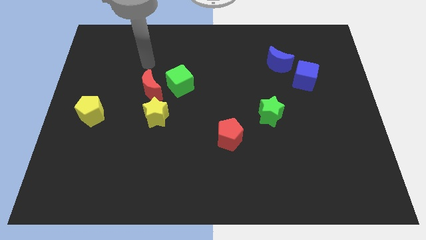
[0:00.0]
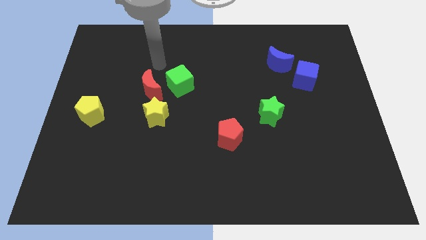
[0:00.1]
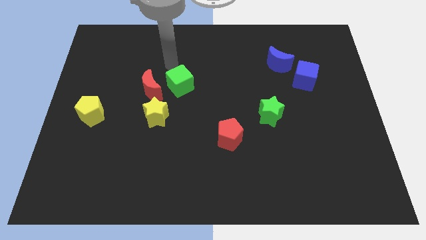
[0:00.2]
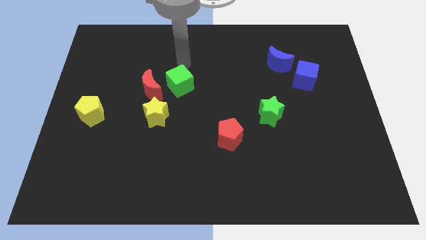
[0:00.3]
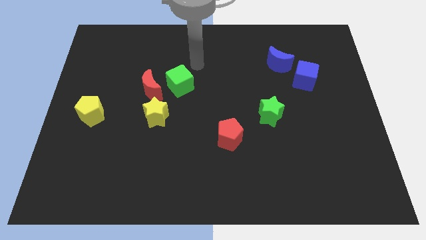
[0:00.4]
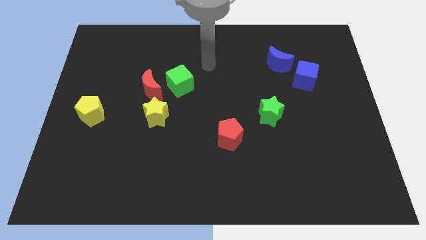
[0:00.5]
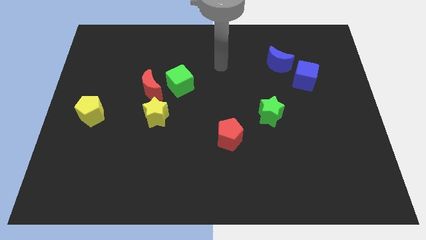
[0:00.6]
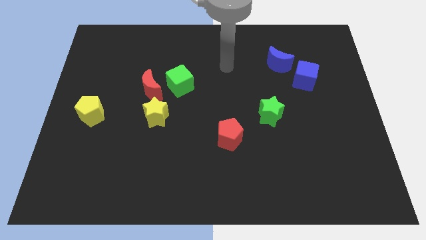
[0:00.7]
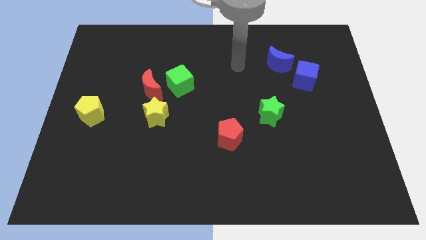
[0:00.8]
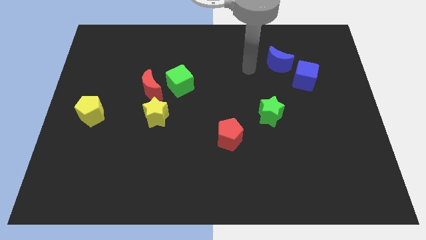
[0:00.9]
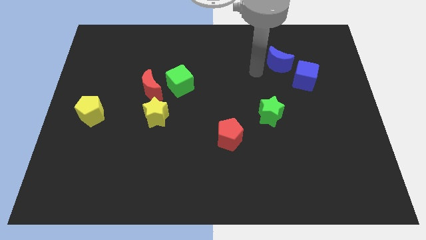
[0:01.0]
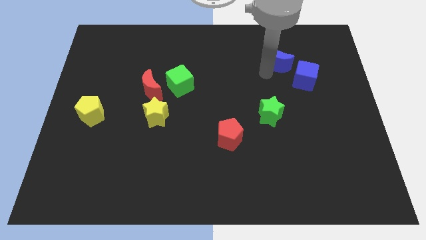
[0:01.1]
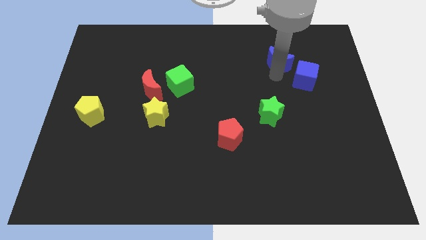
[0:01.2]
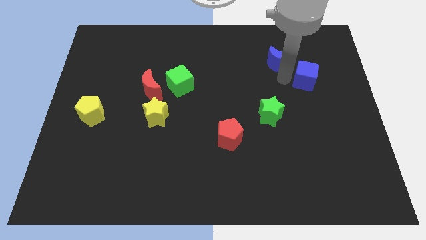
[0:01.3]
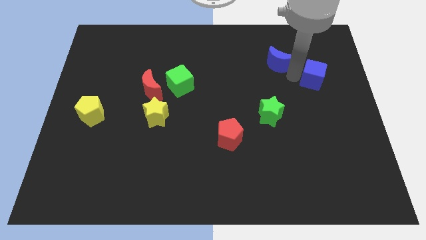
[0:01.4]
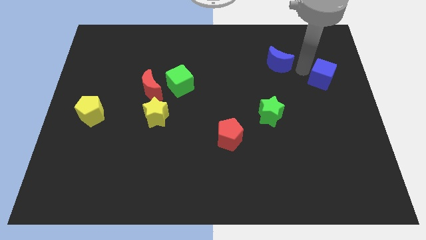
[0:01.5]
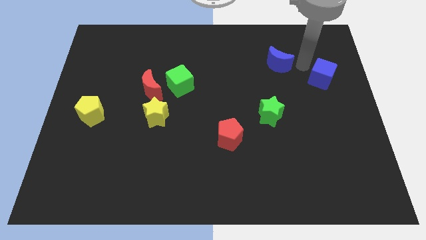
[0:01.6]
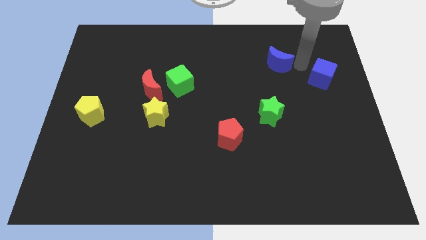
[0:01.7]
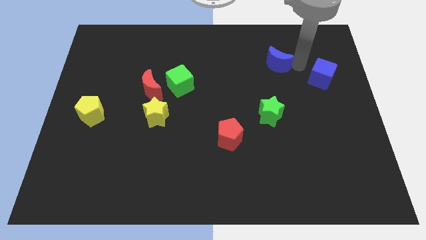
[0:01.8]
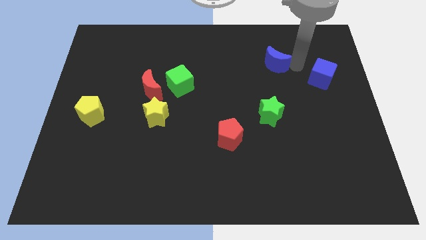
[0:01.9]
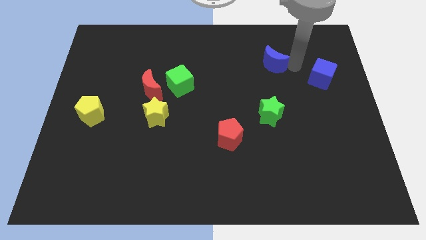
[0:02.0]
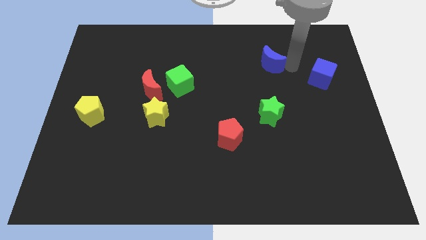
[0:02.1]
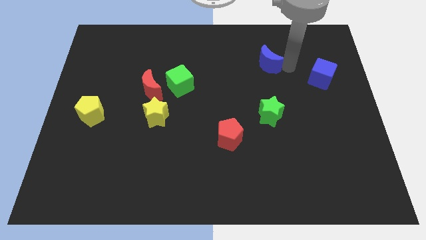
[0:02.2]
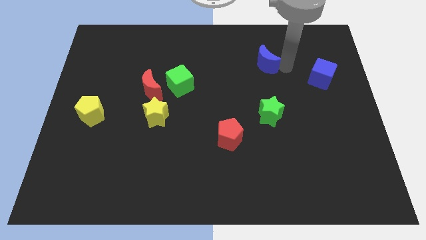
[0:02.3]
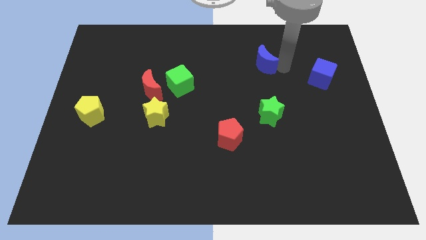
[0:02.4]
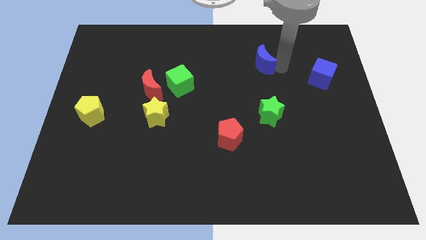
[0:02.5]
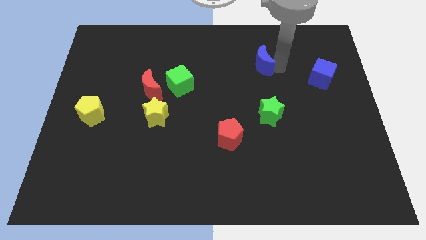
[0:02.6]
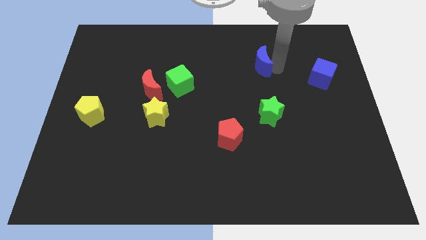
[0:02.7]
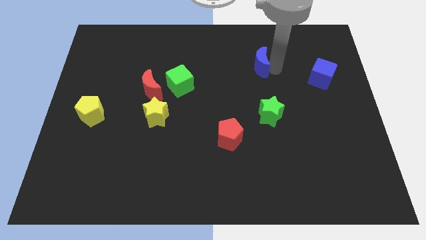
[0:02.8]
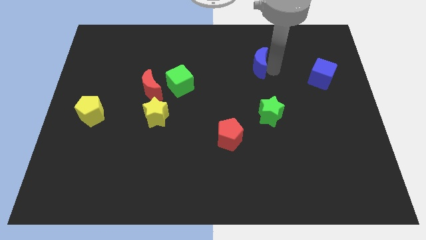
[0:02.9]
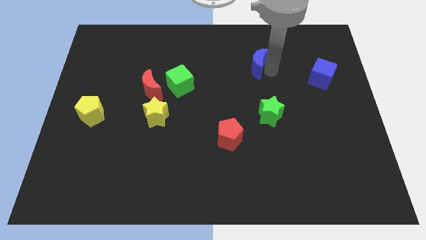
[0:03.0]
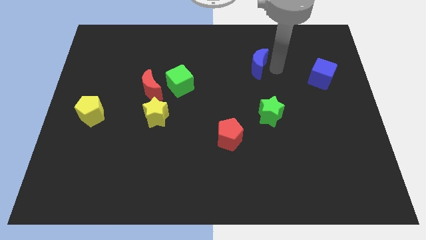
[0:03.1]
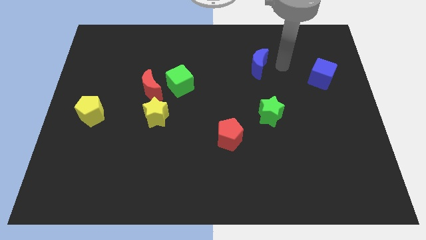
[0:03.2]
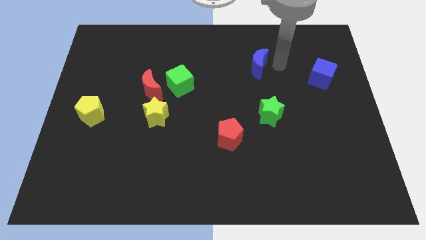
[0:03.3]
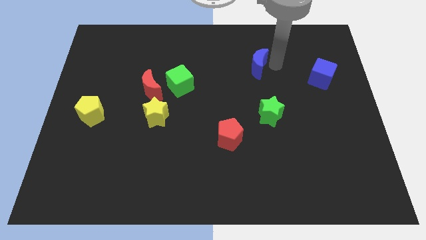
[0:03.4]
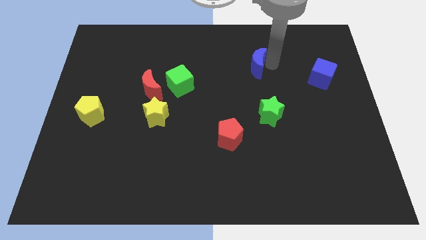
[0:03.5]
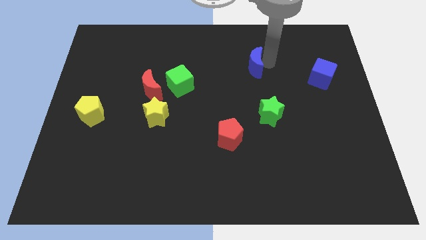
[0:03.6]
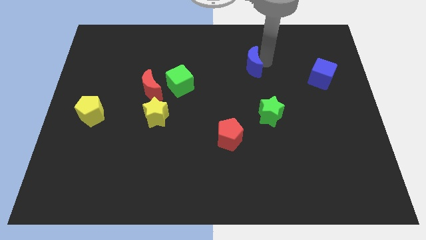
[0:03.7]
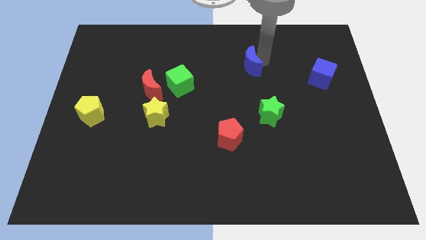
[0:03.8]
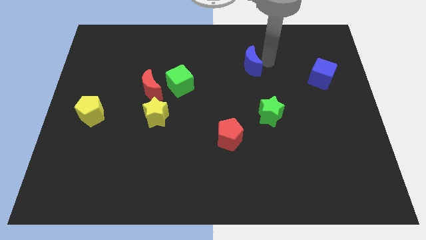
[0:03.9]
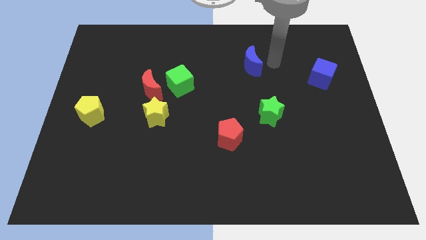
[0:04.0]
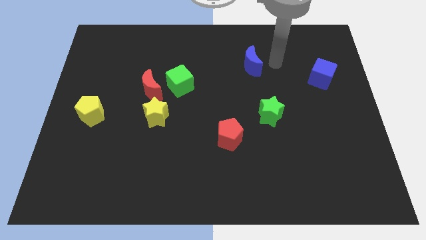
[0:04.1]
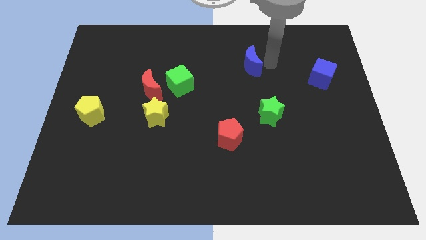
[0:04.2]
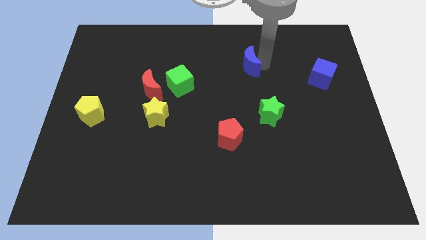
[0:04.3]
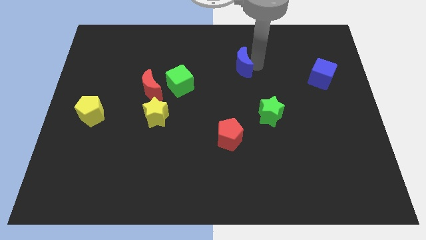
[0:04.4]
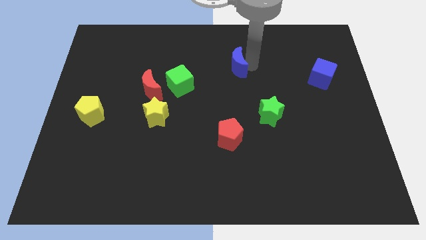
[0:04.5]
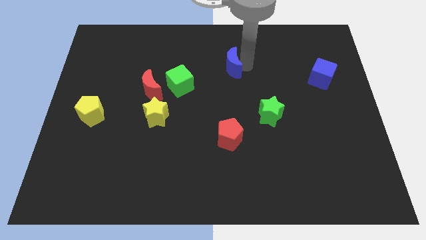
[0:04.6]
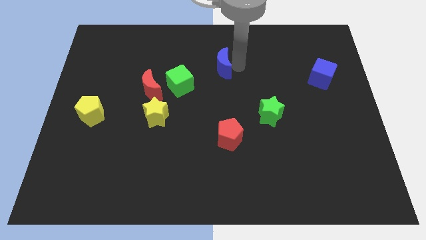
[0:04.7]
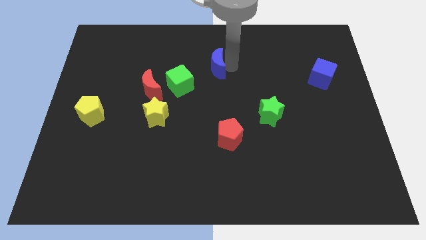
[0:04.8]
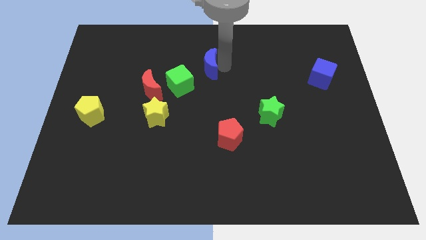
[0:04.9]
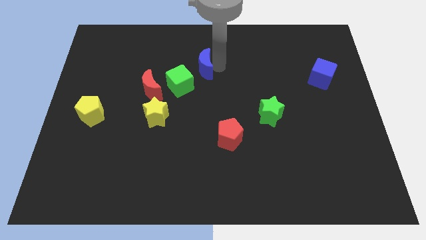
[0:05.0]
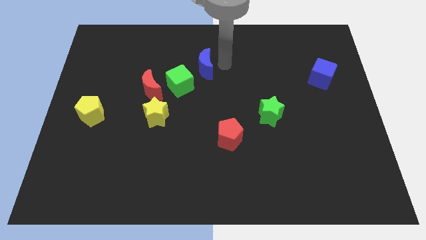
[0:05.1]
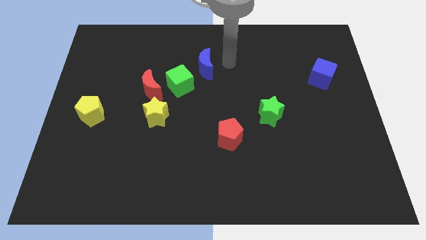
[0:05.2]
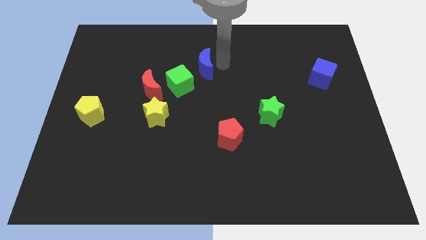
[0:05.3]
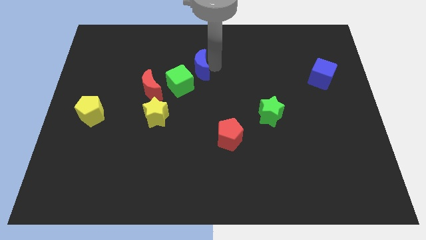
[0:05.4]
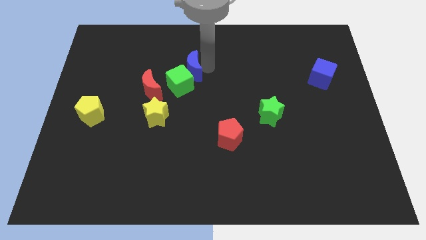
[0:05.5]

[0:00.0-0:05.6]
put the blue moon diagonally up and to the right of the red moon

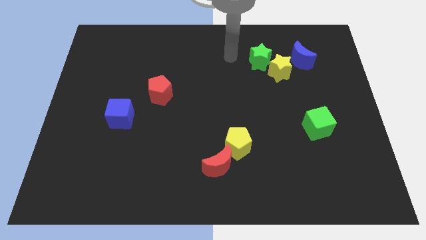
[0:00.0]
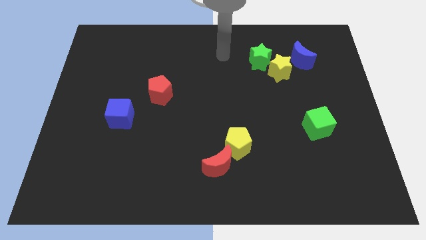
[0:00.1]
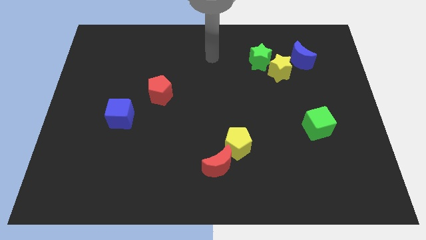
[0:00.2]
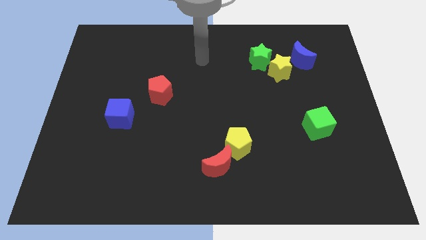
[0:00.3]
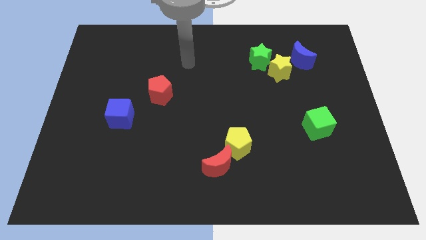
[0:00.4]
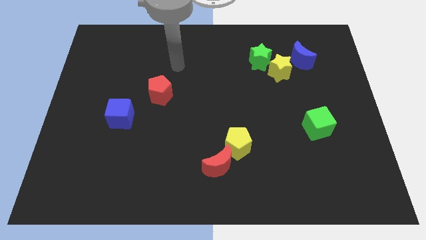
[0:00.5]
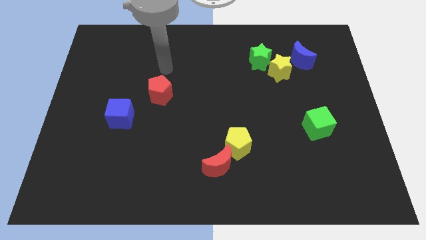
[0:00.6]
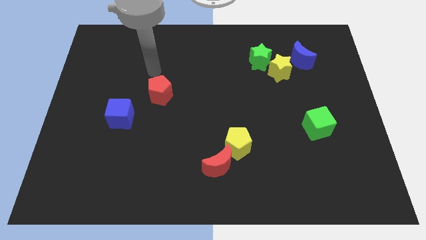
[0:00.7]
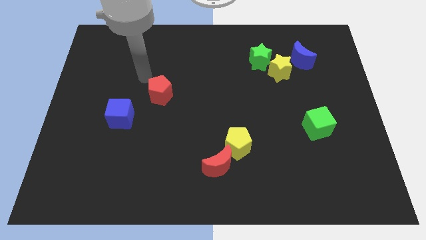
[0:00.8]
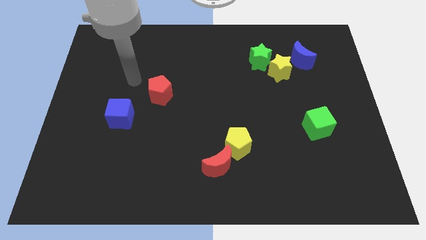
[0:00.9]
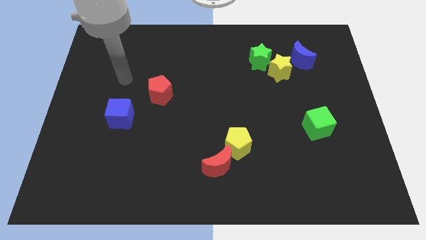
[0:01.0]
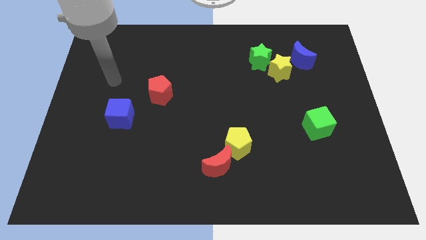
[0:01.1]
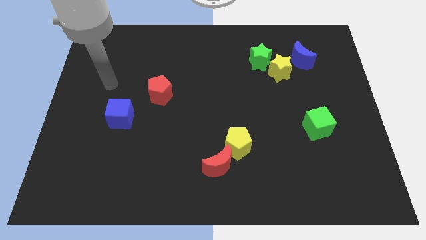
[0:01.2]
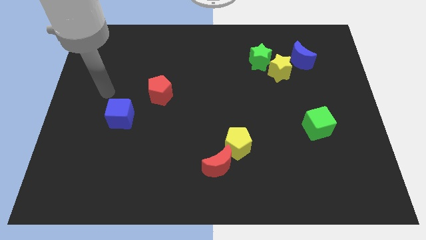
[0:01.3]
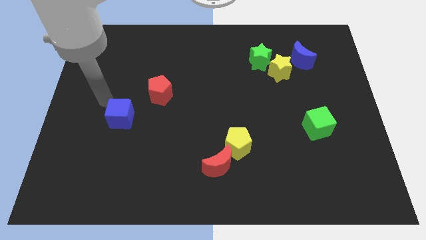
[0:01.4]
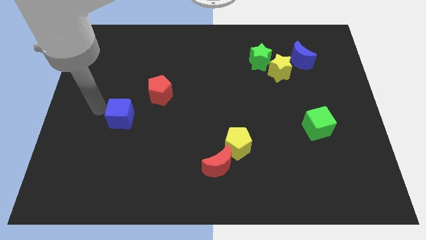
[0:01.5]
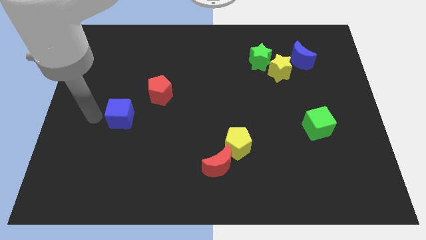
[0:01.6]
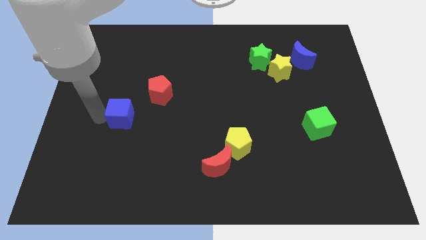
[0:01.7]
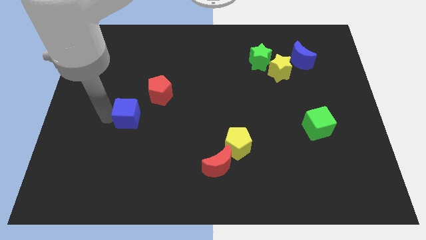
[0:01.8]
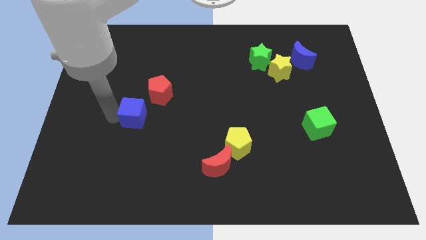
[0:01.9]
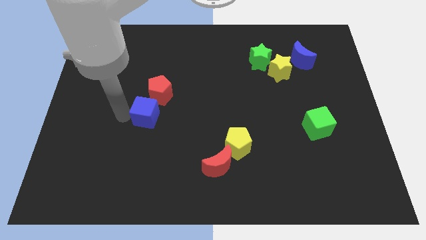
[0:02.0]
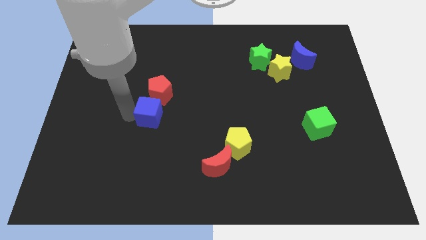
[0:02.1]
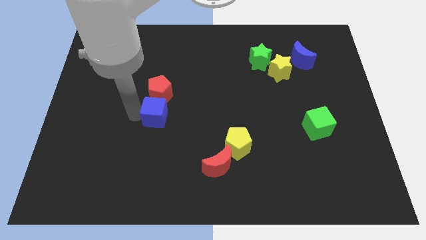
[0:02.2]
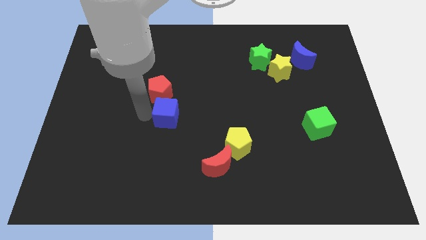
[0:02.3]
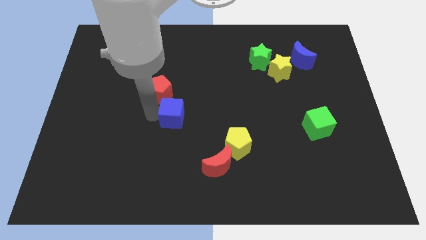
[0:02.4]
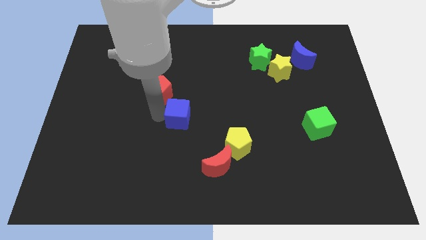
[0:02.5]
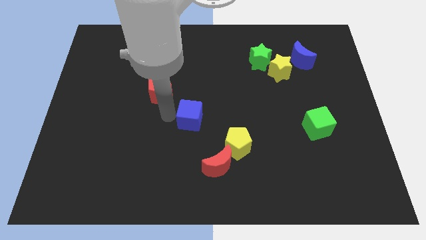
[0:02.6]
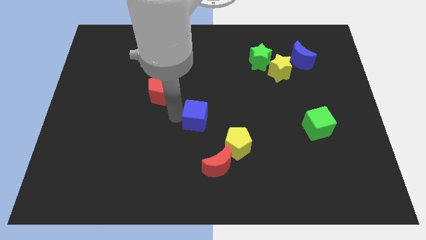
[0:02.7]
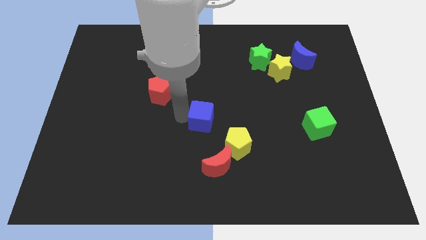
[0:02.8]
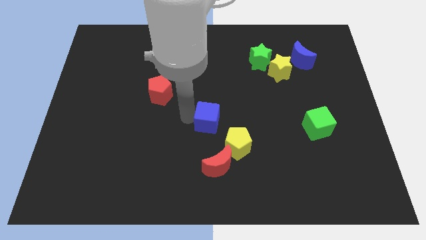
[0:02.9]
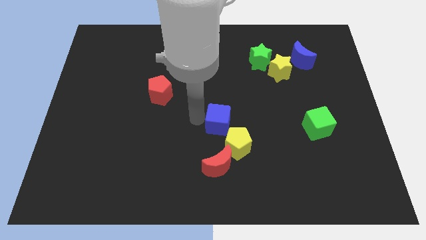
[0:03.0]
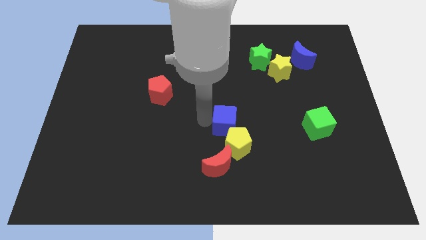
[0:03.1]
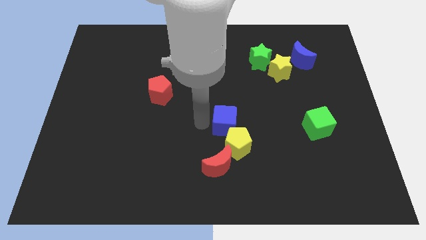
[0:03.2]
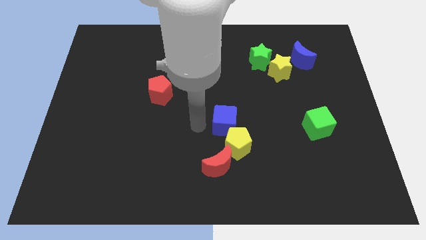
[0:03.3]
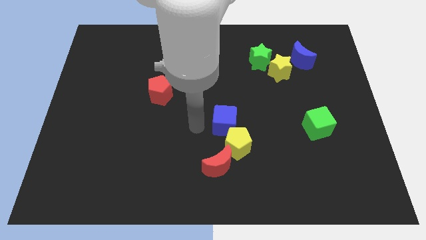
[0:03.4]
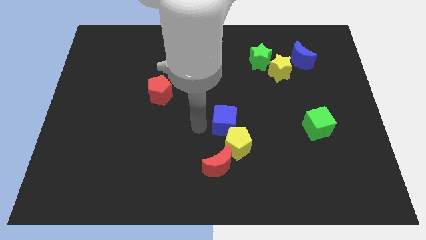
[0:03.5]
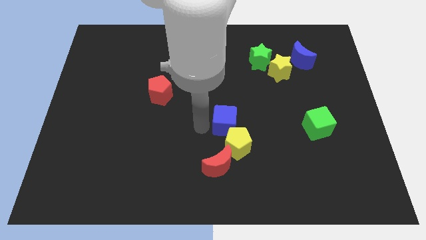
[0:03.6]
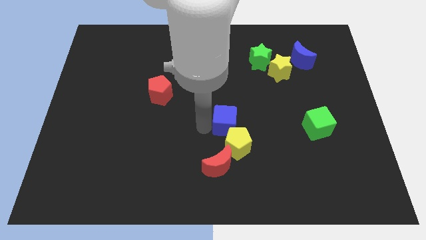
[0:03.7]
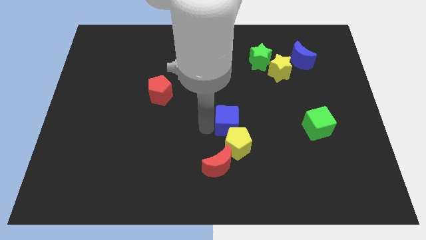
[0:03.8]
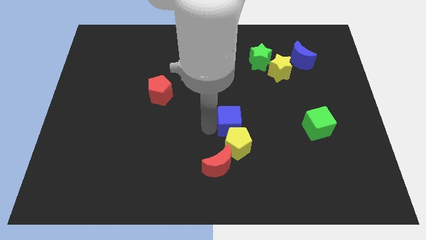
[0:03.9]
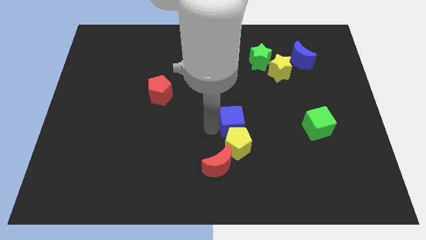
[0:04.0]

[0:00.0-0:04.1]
slide the blue cube diagonally up and to the right of the yellow pentagon
